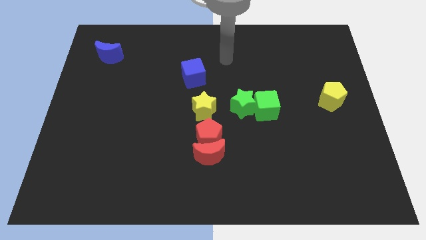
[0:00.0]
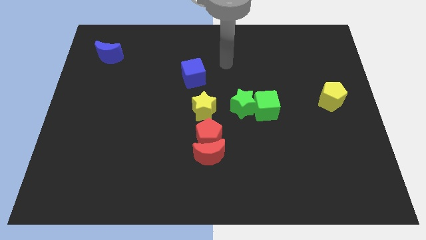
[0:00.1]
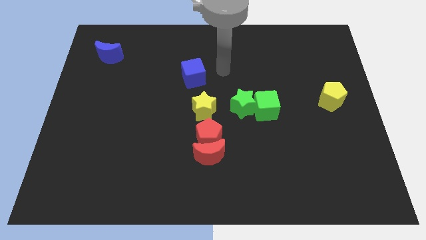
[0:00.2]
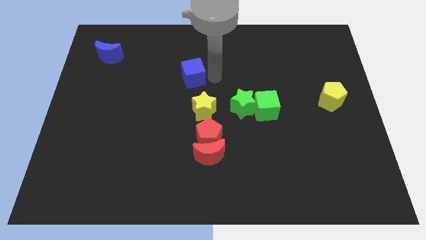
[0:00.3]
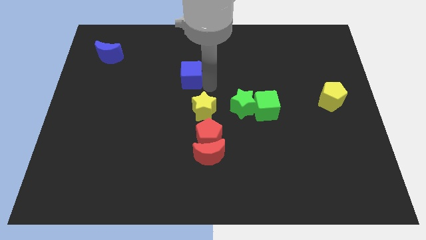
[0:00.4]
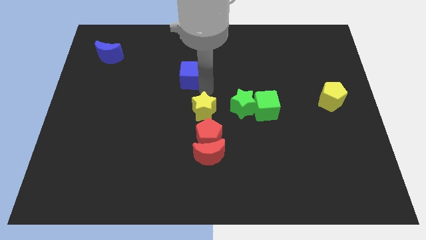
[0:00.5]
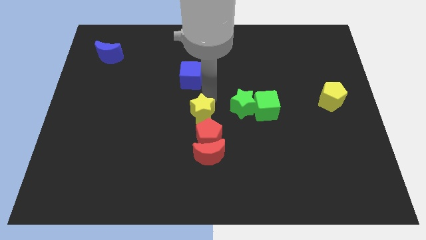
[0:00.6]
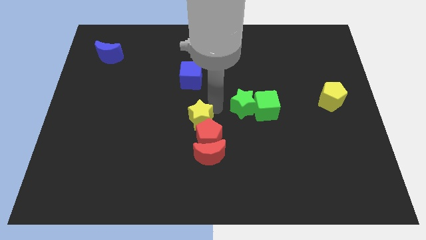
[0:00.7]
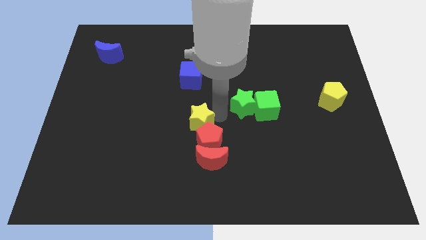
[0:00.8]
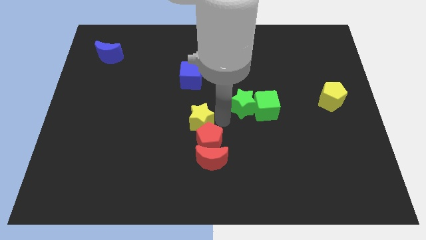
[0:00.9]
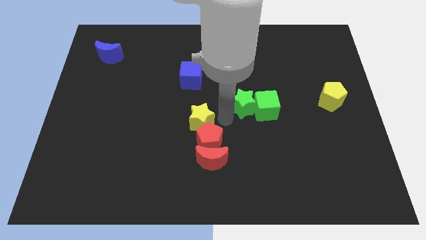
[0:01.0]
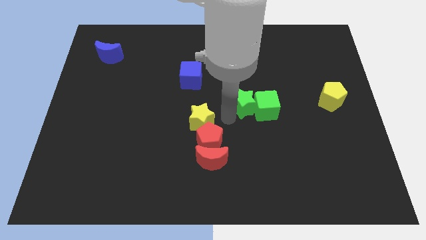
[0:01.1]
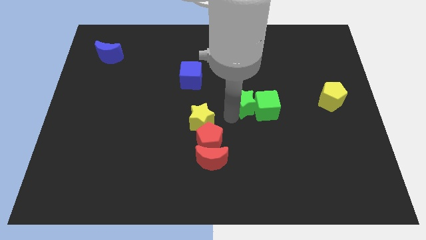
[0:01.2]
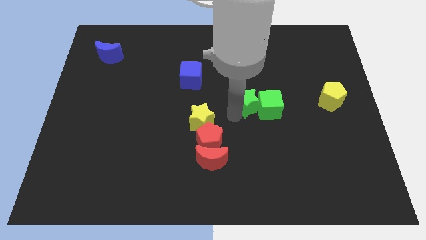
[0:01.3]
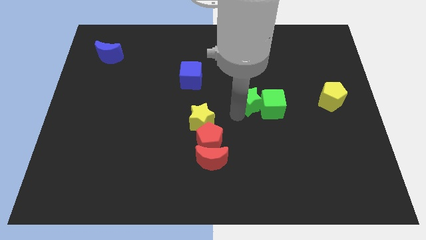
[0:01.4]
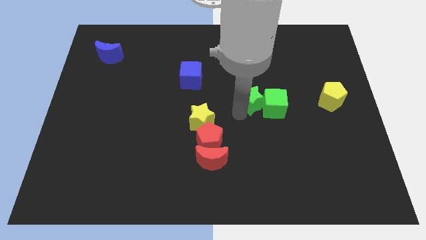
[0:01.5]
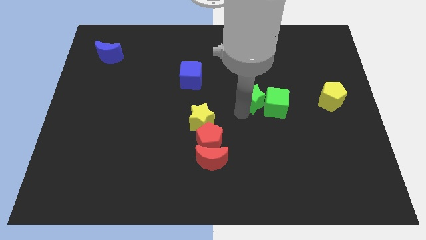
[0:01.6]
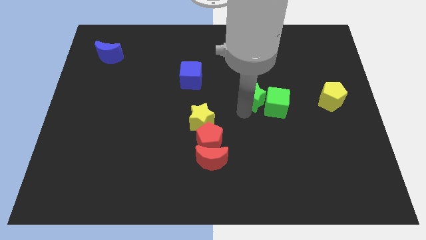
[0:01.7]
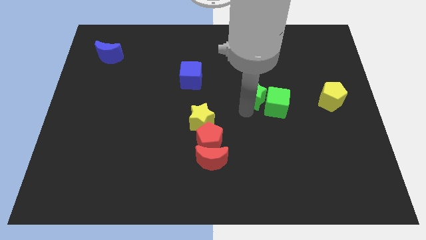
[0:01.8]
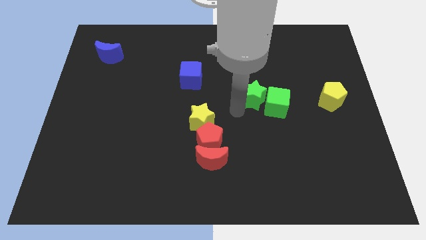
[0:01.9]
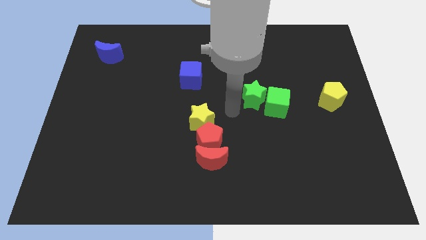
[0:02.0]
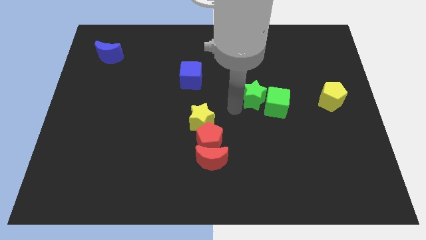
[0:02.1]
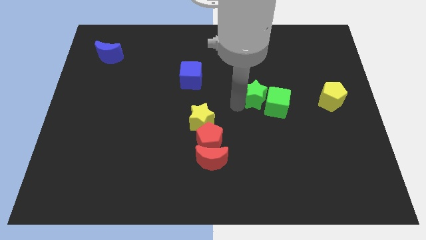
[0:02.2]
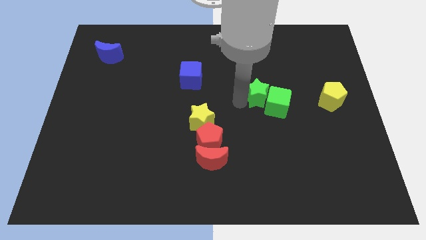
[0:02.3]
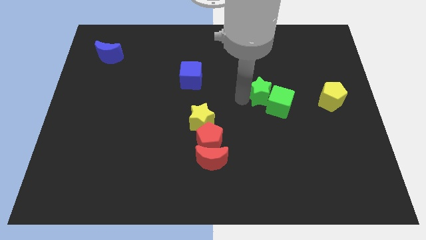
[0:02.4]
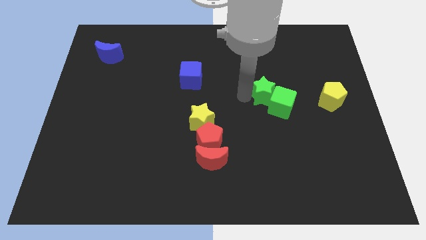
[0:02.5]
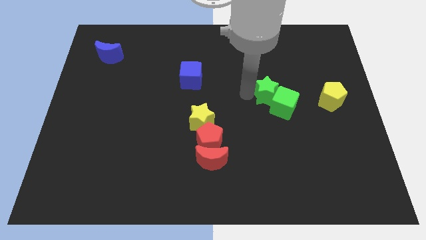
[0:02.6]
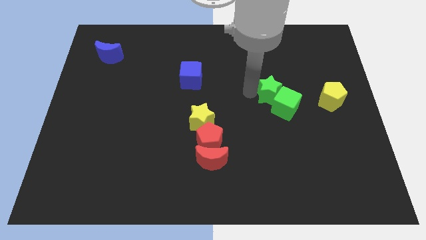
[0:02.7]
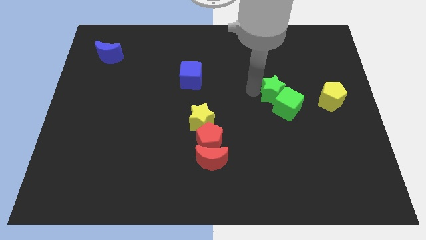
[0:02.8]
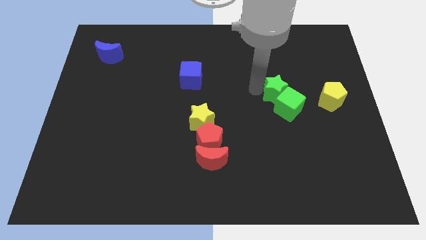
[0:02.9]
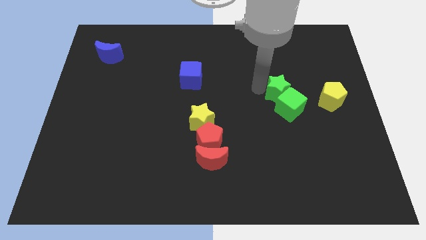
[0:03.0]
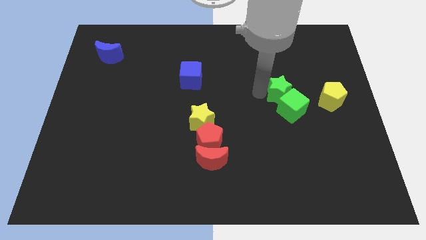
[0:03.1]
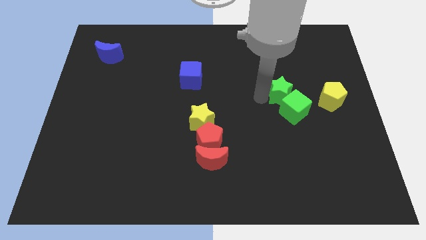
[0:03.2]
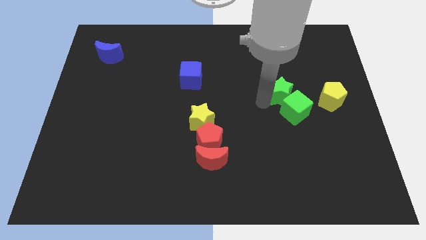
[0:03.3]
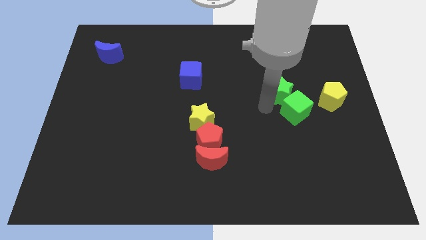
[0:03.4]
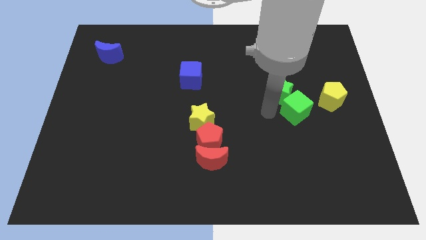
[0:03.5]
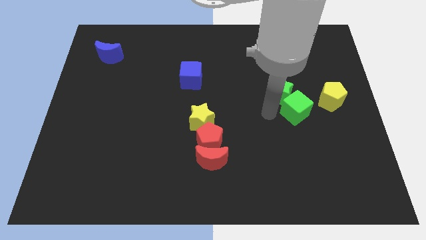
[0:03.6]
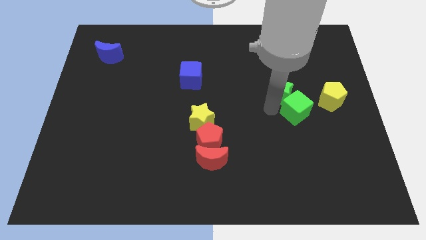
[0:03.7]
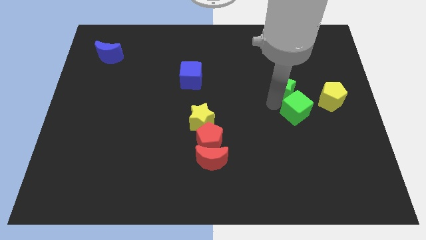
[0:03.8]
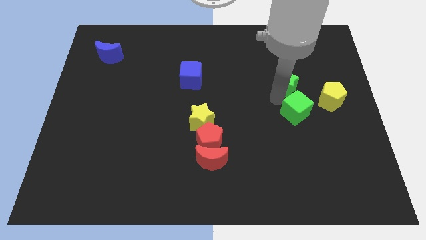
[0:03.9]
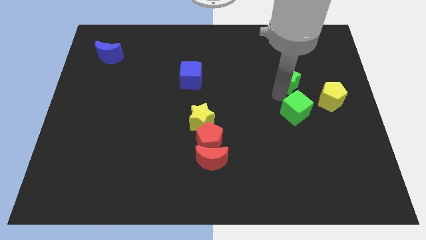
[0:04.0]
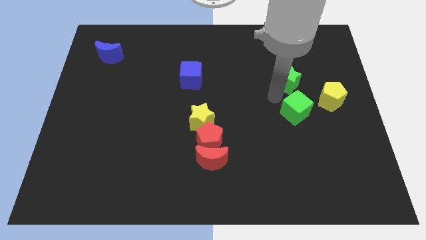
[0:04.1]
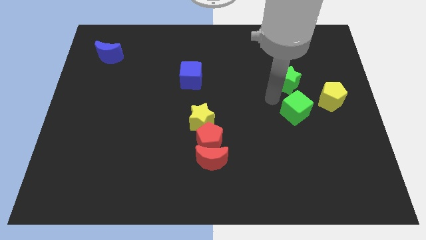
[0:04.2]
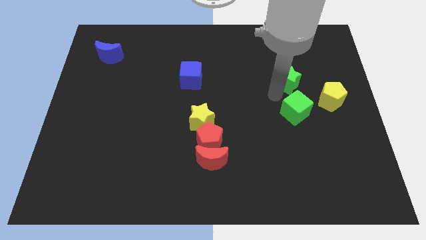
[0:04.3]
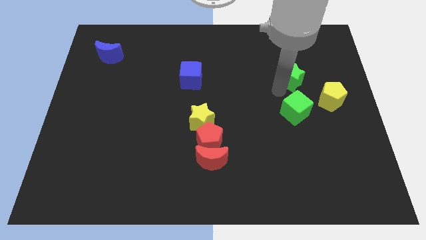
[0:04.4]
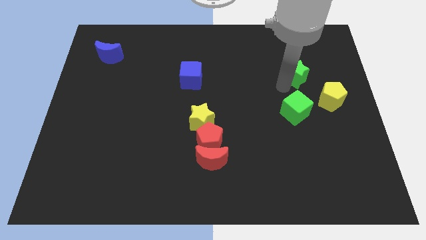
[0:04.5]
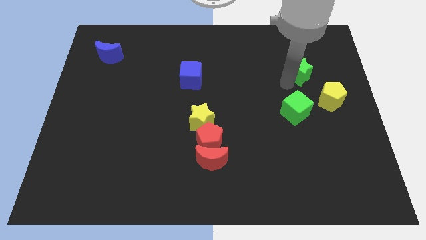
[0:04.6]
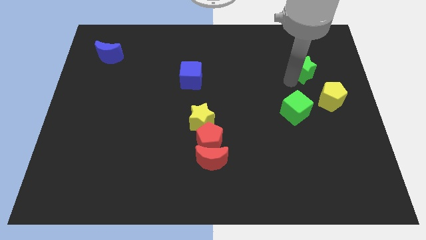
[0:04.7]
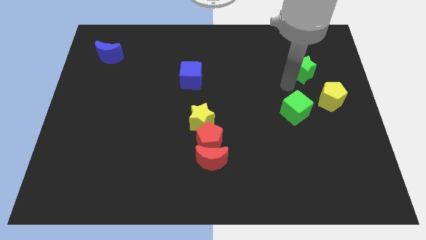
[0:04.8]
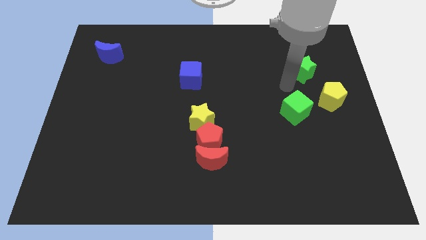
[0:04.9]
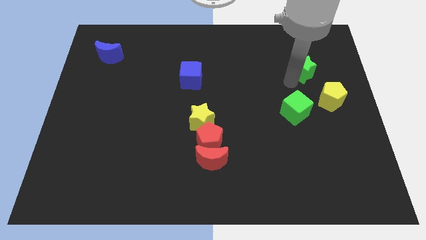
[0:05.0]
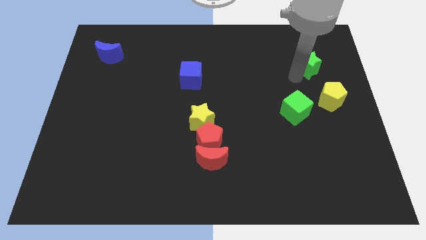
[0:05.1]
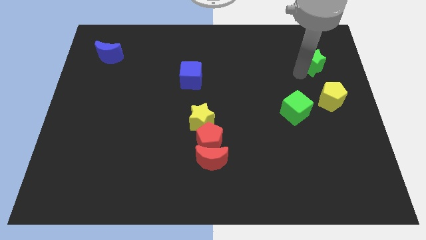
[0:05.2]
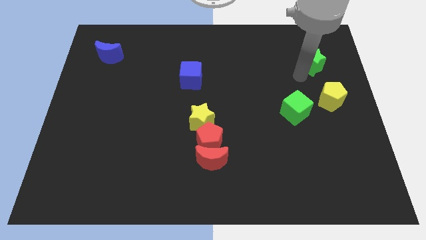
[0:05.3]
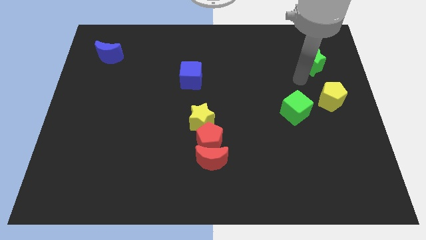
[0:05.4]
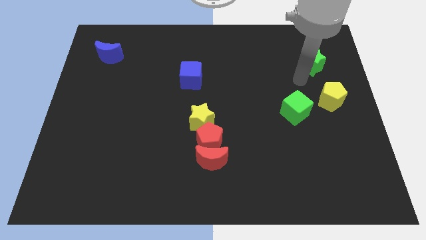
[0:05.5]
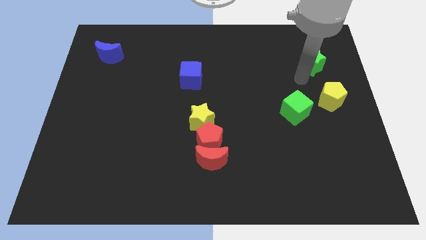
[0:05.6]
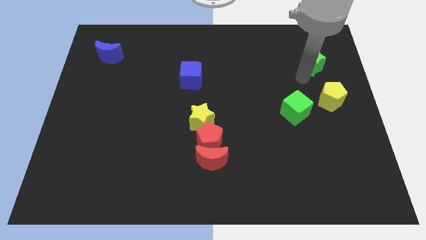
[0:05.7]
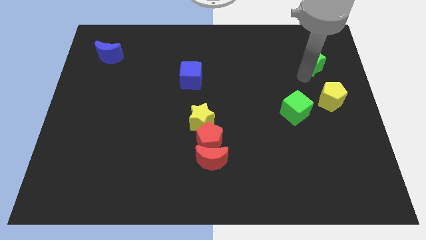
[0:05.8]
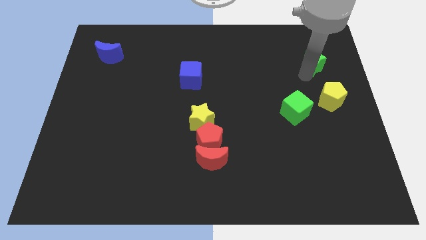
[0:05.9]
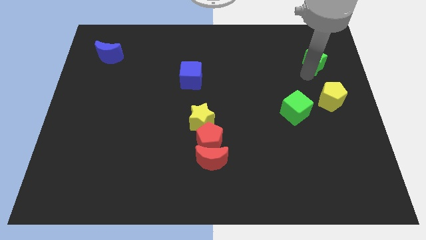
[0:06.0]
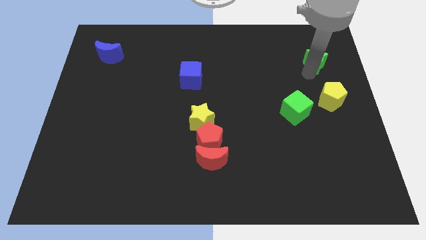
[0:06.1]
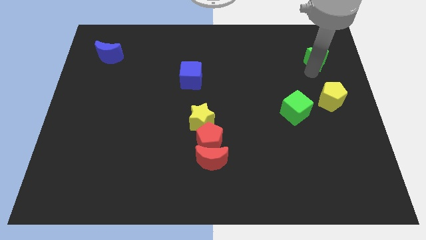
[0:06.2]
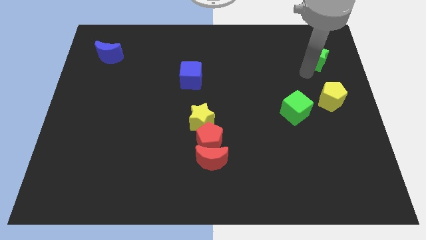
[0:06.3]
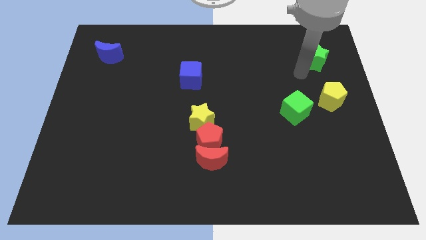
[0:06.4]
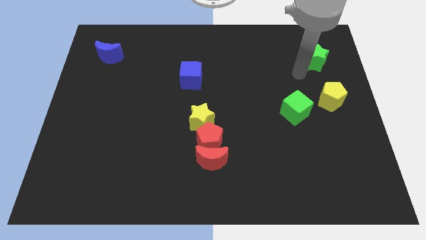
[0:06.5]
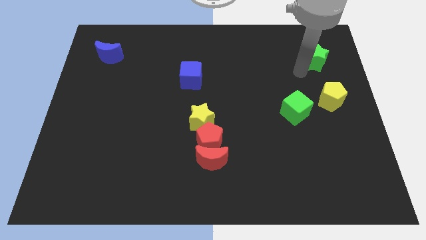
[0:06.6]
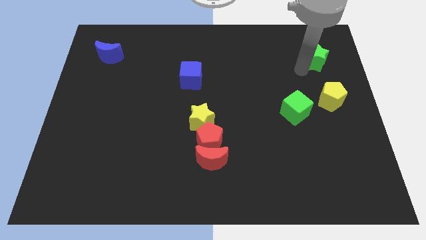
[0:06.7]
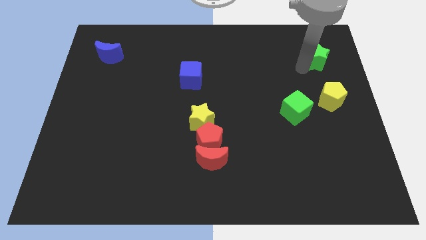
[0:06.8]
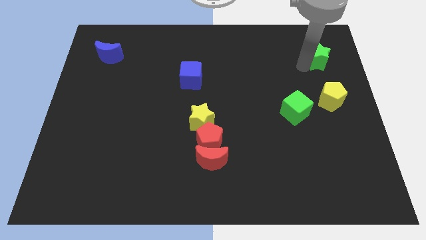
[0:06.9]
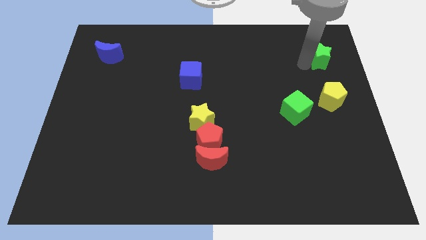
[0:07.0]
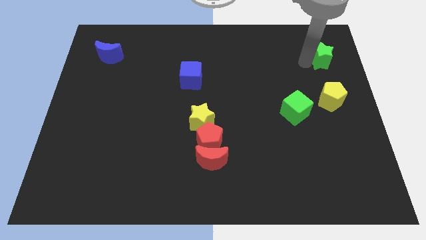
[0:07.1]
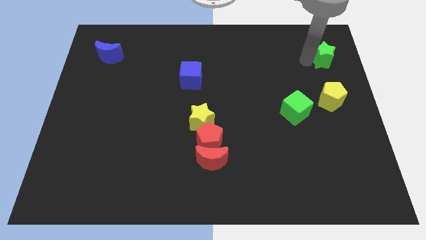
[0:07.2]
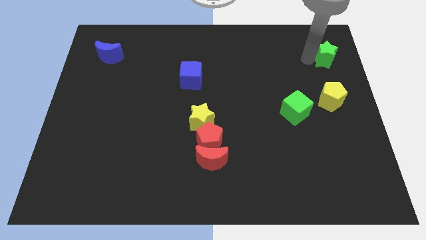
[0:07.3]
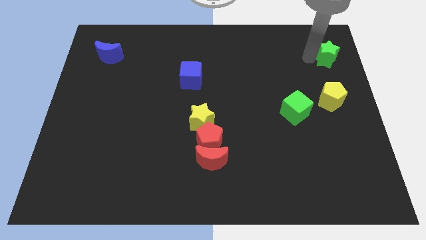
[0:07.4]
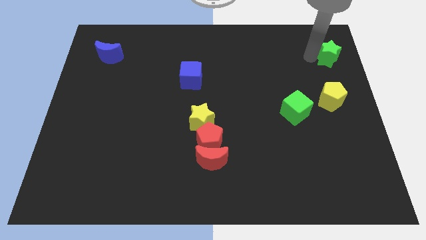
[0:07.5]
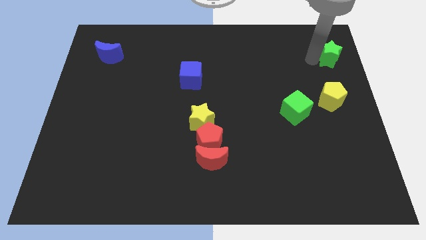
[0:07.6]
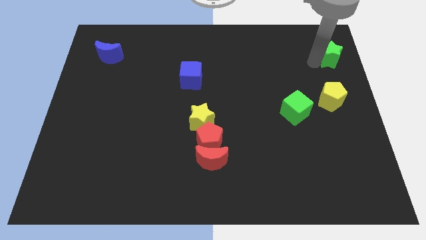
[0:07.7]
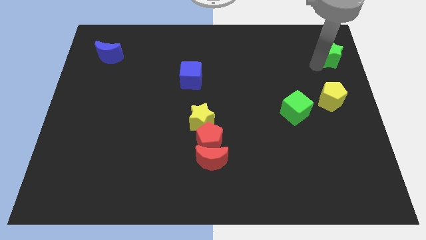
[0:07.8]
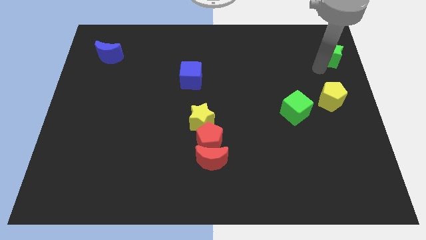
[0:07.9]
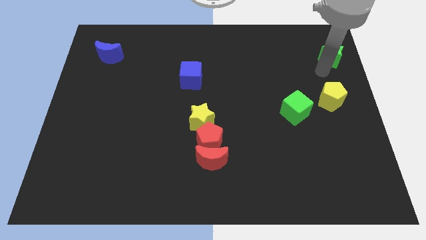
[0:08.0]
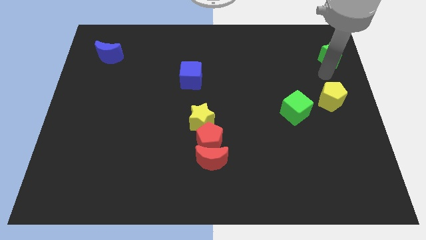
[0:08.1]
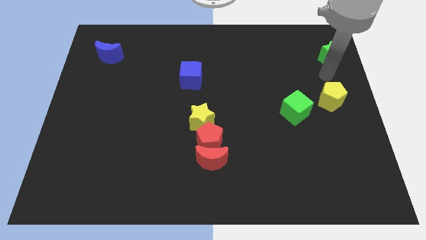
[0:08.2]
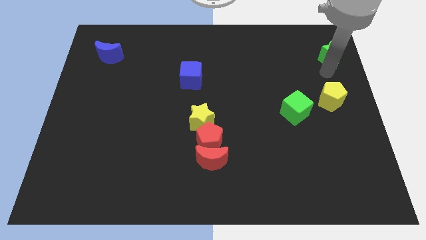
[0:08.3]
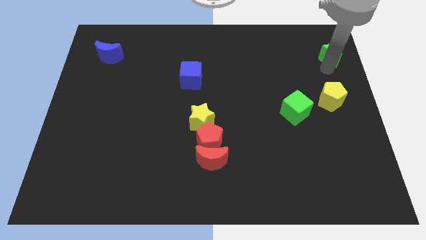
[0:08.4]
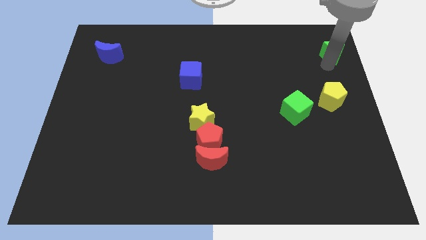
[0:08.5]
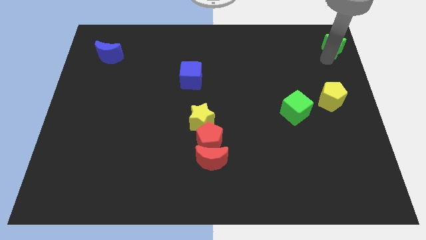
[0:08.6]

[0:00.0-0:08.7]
move the green star to the top right
